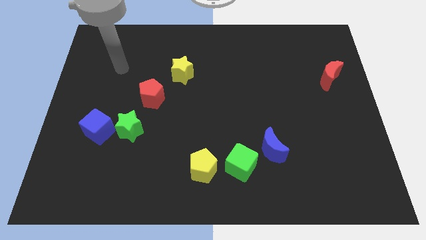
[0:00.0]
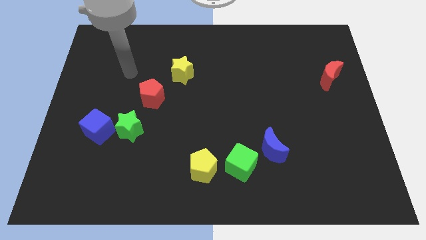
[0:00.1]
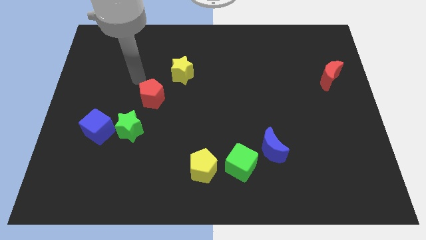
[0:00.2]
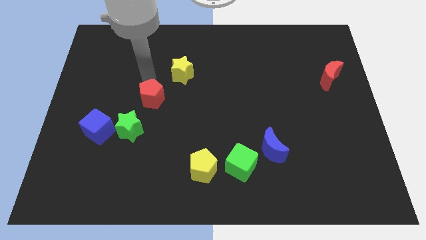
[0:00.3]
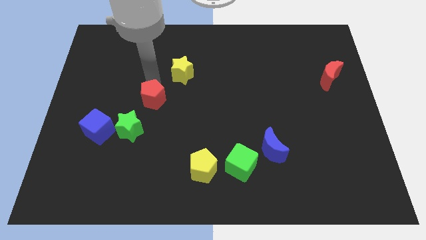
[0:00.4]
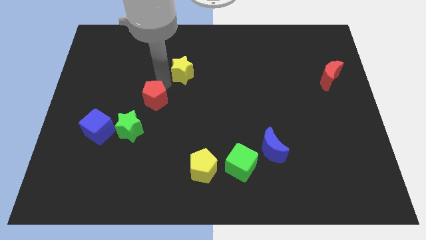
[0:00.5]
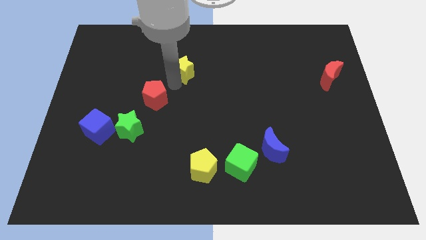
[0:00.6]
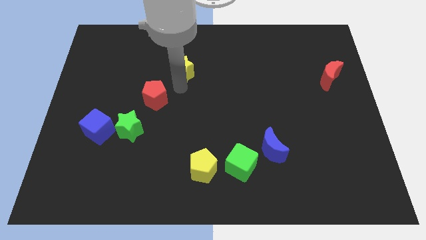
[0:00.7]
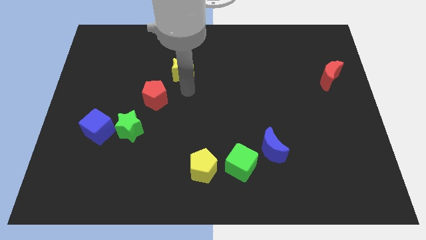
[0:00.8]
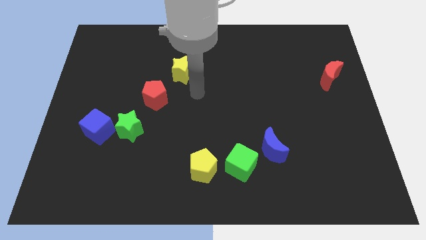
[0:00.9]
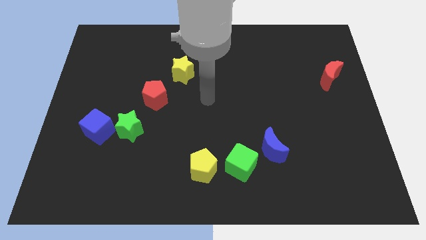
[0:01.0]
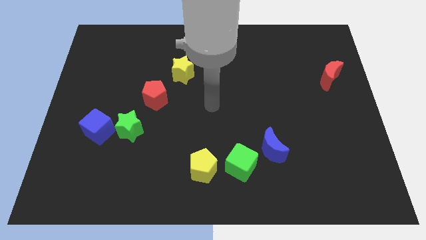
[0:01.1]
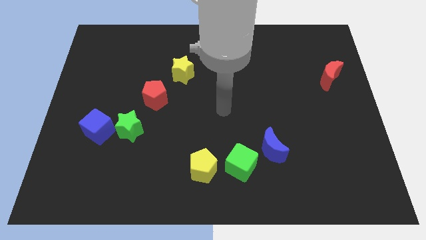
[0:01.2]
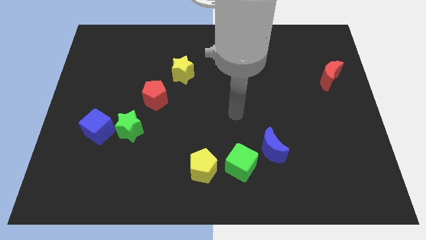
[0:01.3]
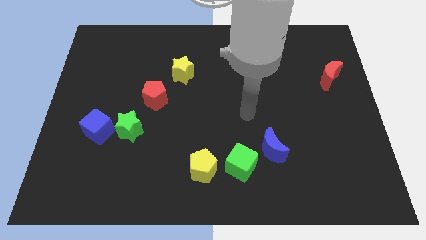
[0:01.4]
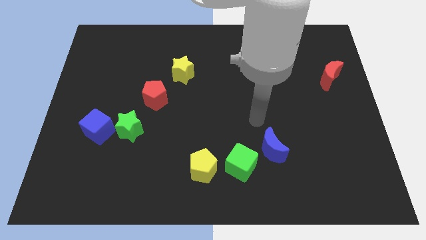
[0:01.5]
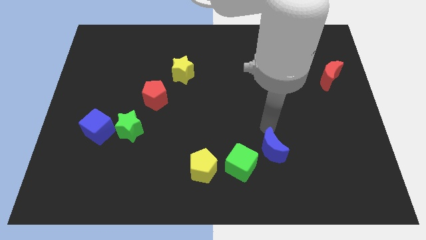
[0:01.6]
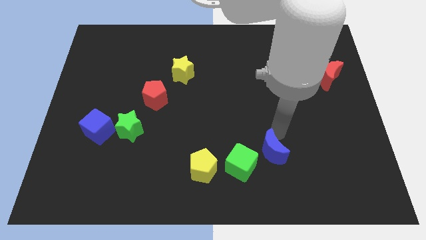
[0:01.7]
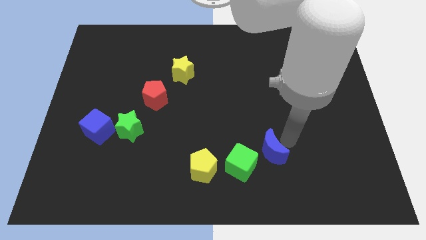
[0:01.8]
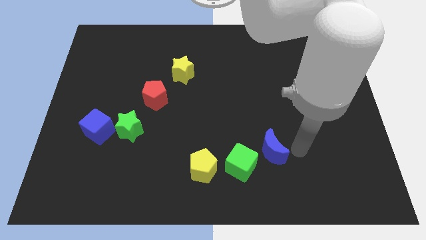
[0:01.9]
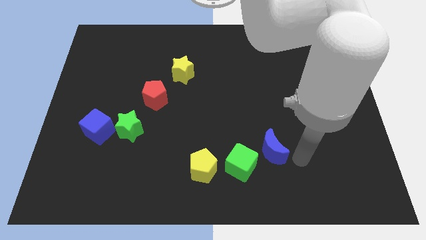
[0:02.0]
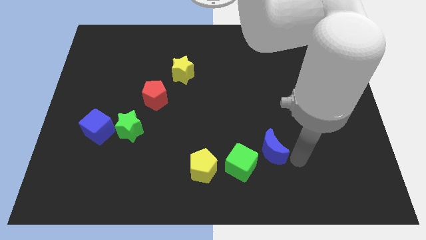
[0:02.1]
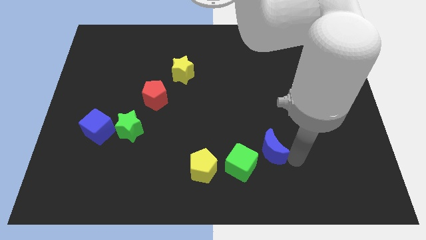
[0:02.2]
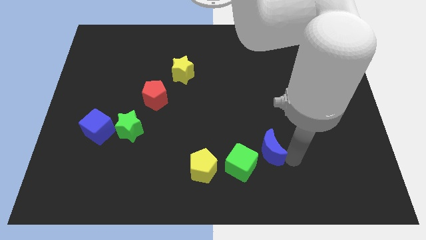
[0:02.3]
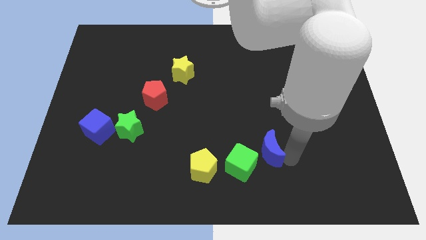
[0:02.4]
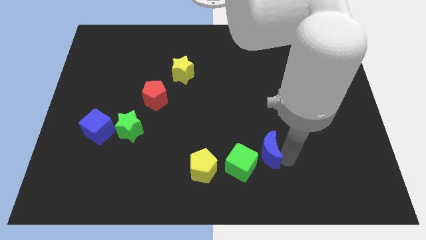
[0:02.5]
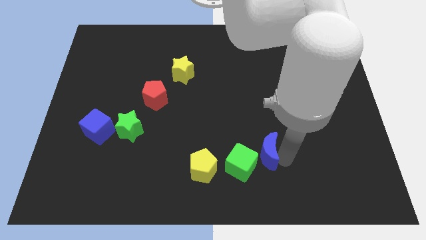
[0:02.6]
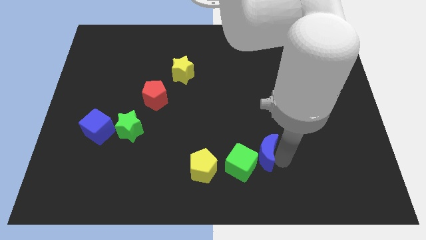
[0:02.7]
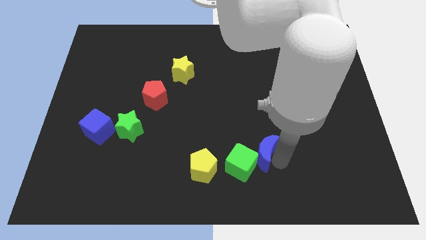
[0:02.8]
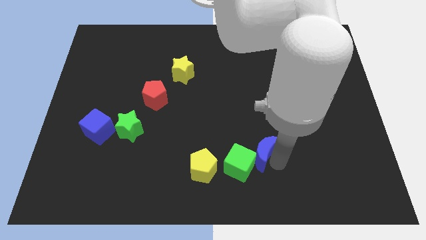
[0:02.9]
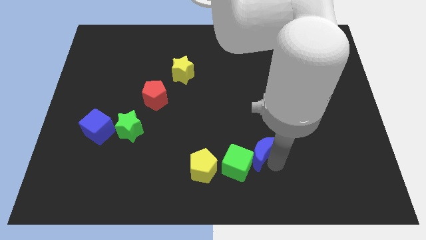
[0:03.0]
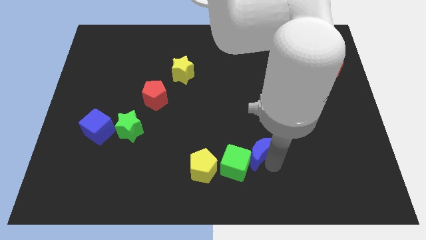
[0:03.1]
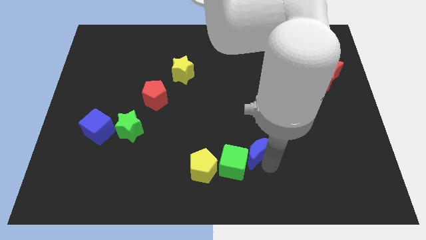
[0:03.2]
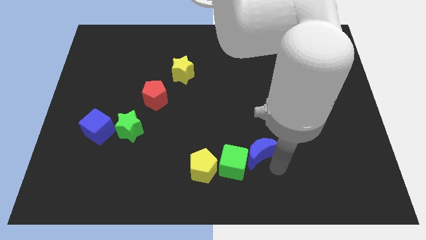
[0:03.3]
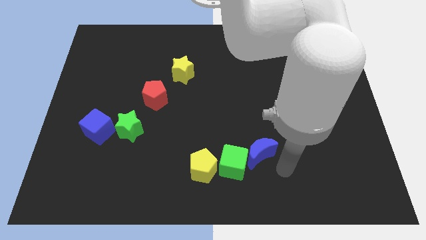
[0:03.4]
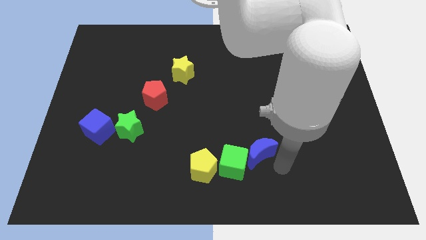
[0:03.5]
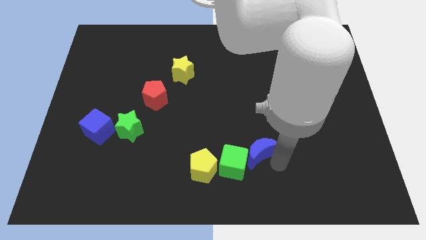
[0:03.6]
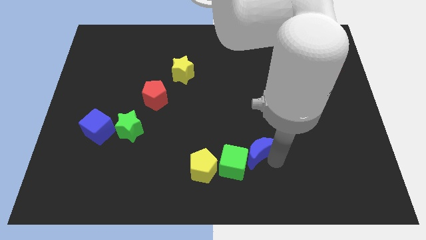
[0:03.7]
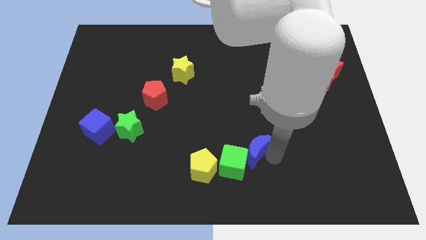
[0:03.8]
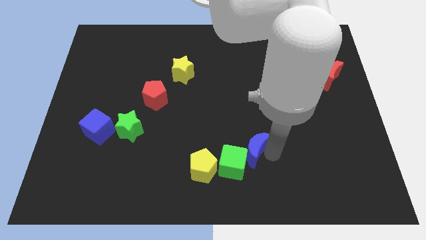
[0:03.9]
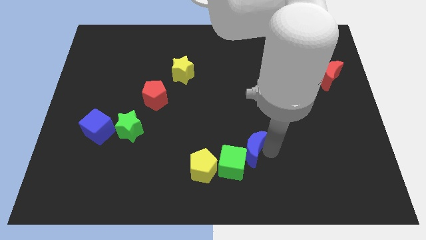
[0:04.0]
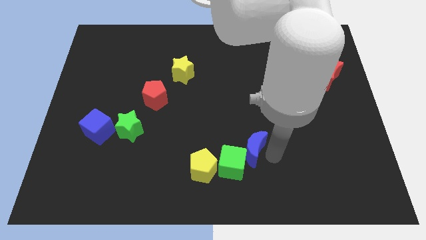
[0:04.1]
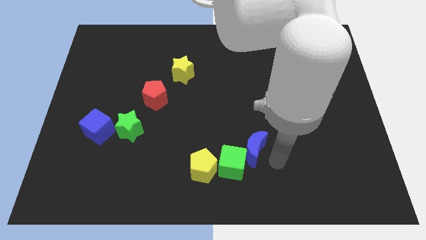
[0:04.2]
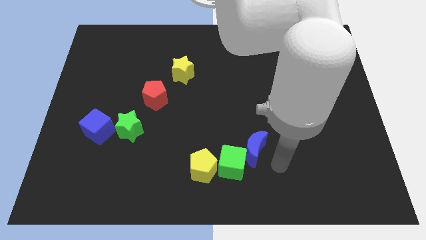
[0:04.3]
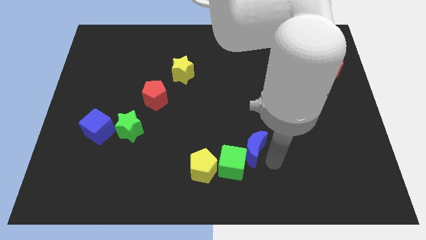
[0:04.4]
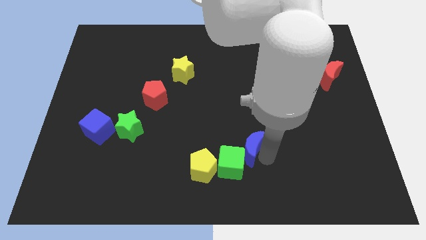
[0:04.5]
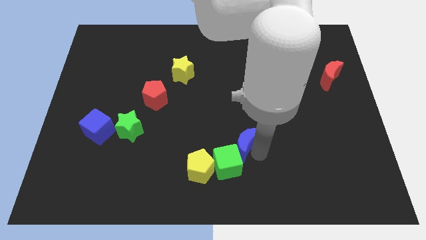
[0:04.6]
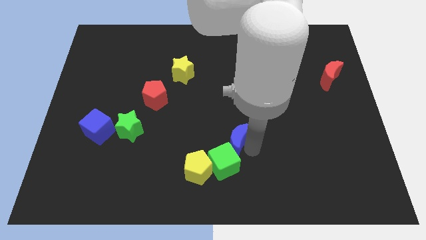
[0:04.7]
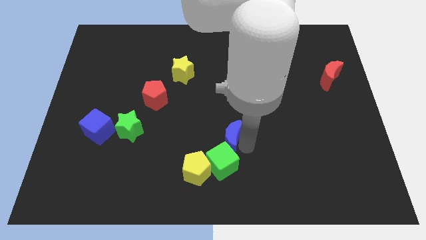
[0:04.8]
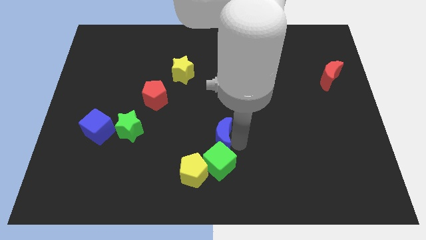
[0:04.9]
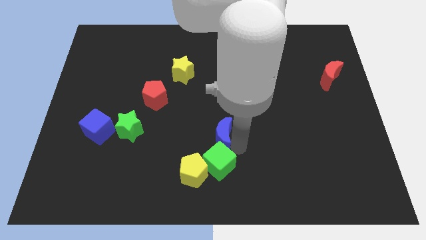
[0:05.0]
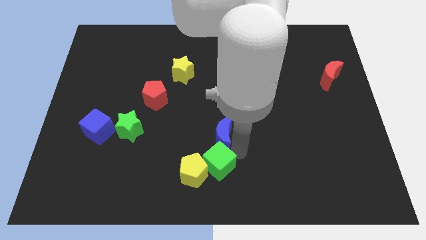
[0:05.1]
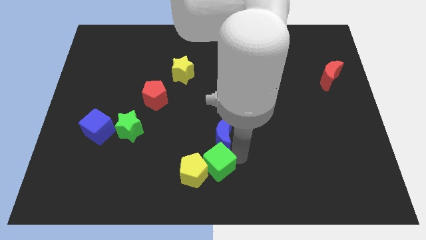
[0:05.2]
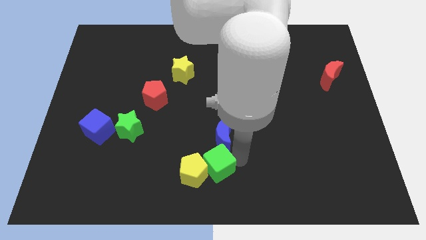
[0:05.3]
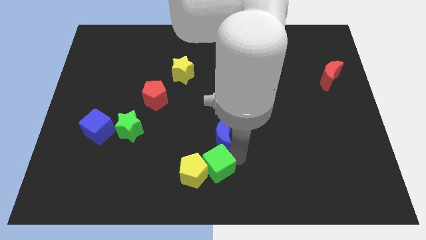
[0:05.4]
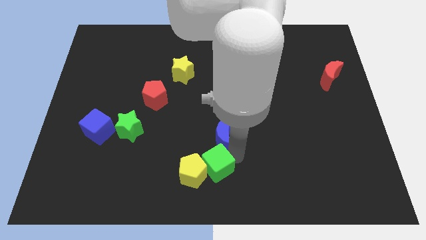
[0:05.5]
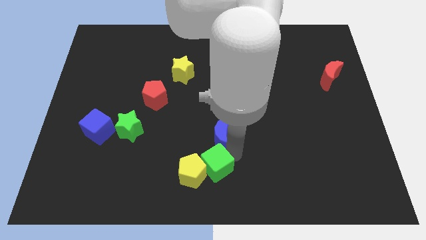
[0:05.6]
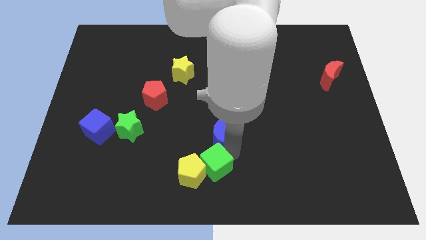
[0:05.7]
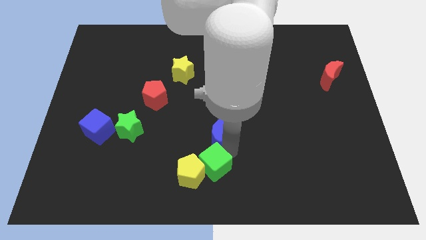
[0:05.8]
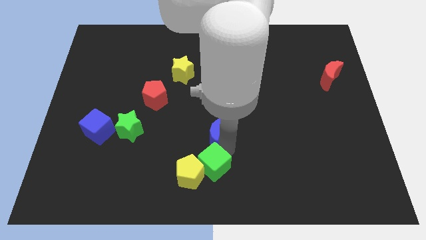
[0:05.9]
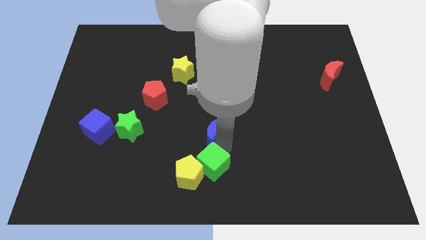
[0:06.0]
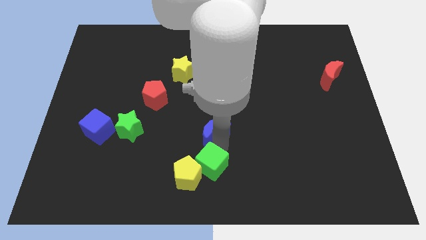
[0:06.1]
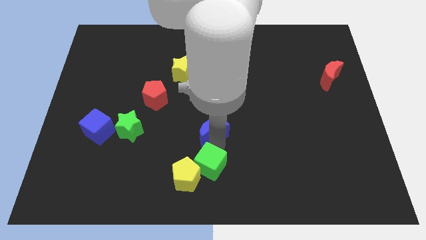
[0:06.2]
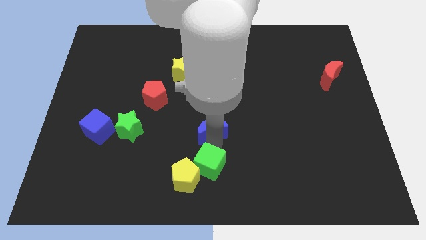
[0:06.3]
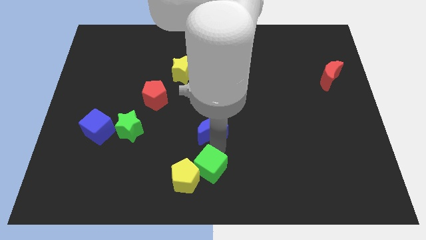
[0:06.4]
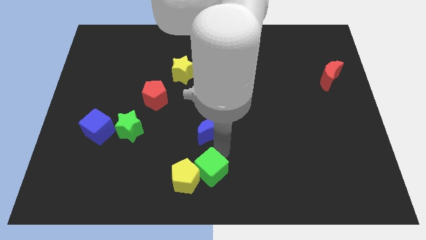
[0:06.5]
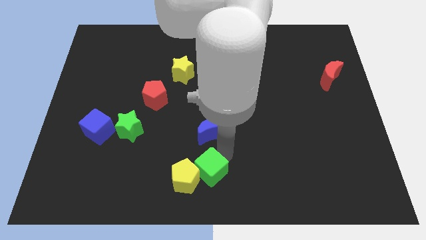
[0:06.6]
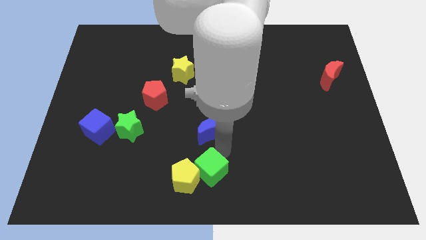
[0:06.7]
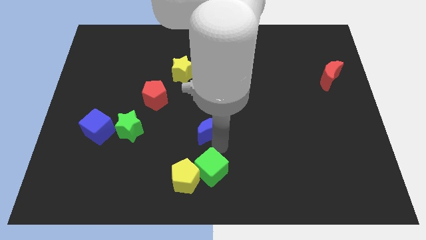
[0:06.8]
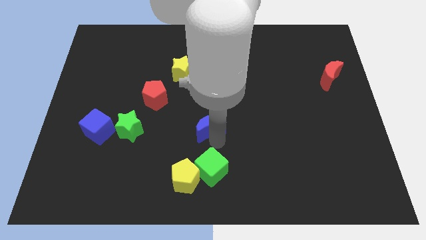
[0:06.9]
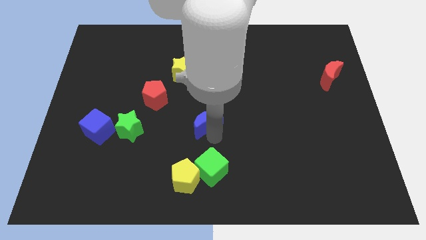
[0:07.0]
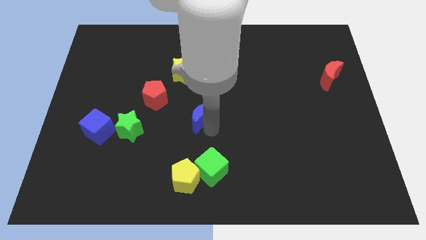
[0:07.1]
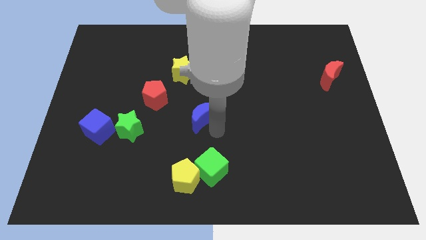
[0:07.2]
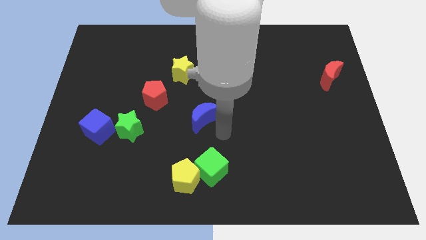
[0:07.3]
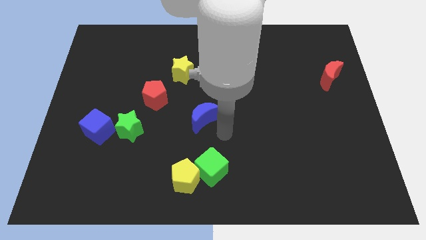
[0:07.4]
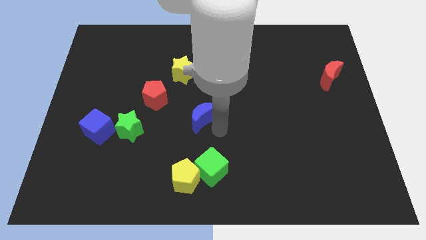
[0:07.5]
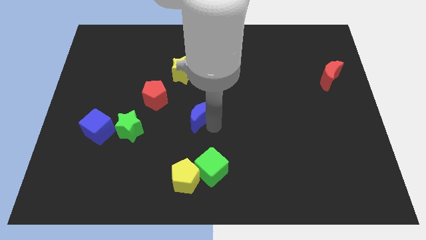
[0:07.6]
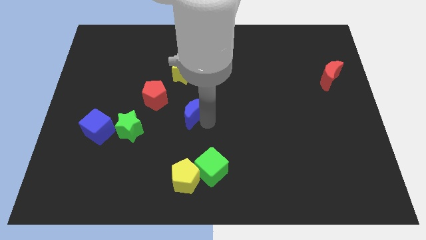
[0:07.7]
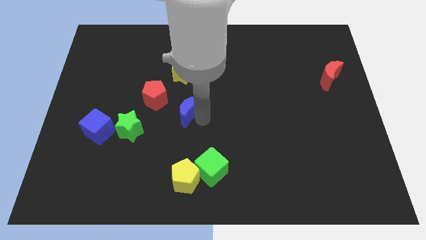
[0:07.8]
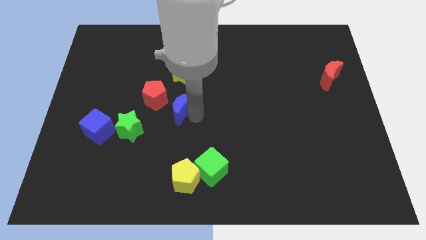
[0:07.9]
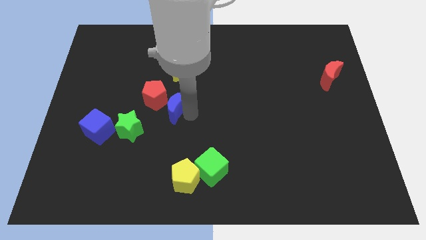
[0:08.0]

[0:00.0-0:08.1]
move the blue moon towards the red pentagon
